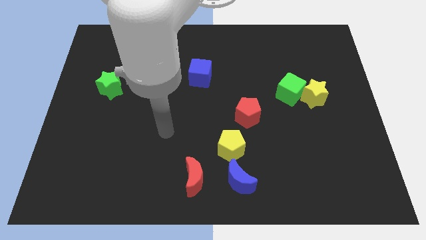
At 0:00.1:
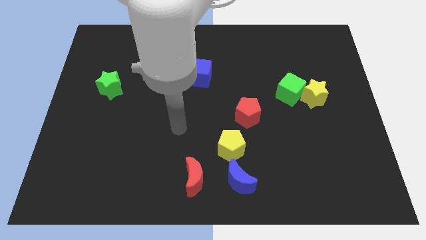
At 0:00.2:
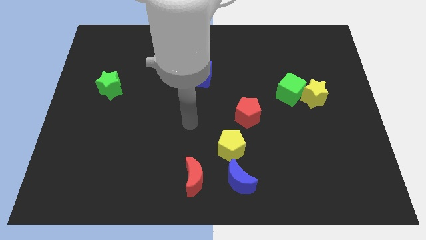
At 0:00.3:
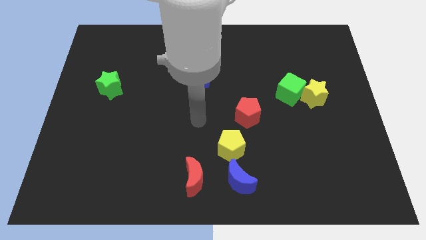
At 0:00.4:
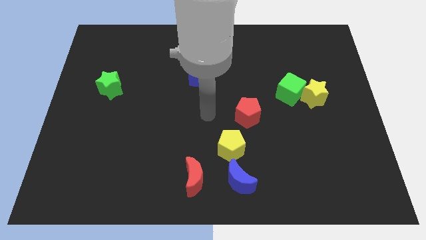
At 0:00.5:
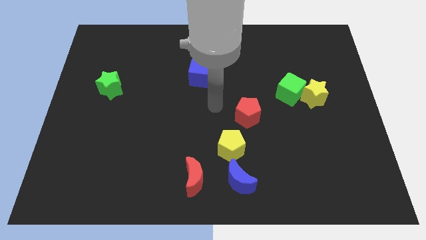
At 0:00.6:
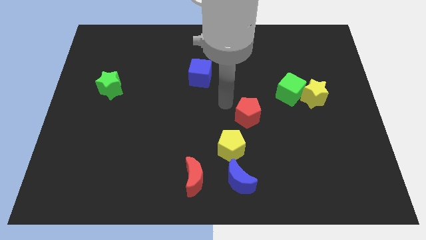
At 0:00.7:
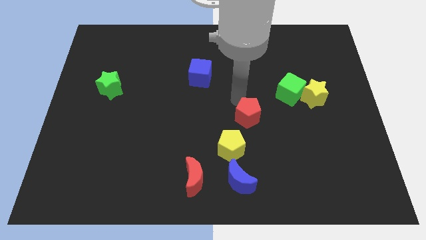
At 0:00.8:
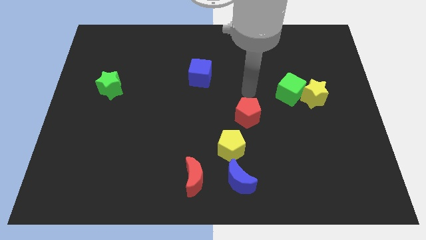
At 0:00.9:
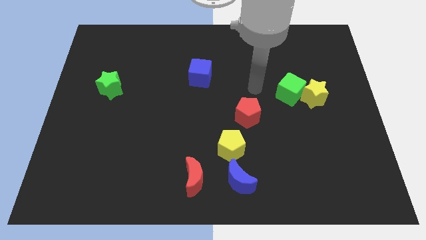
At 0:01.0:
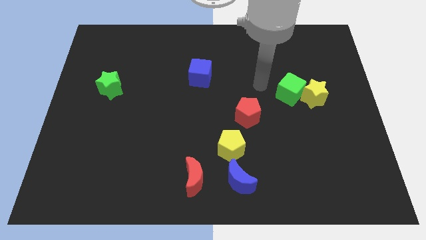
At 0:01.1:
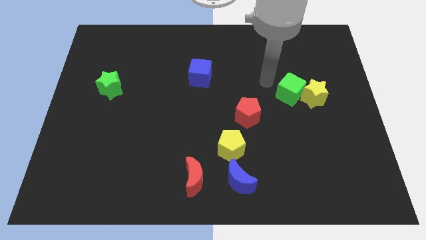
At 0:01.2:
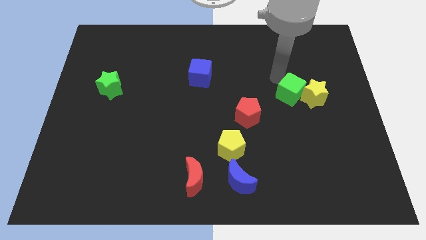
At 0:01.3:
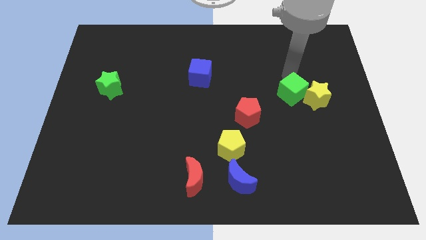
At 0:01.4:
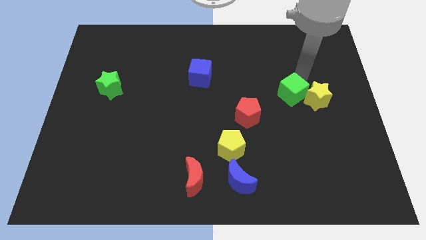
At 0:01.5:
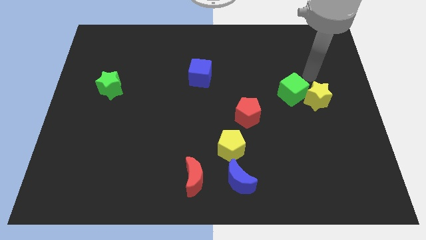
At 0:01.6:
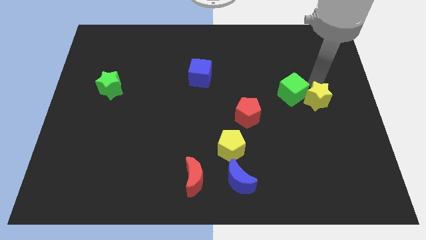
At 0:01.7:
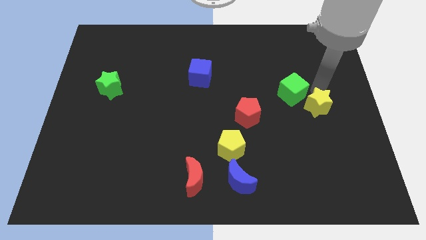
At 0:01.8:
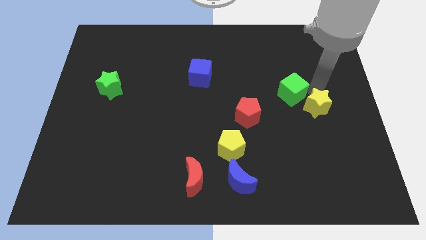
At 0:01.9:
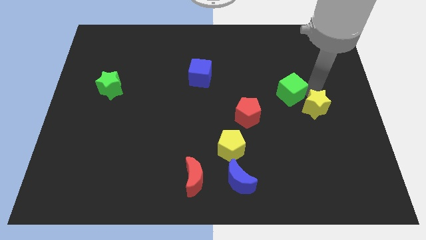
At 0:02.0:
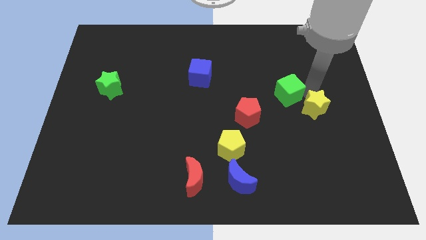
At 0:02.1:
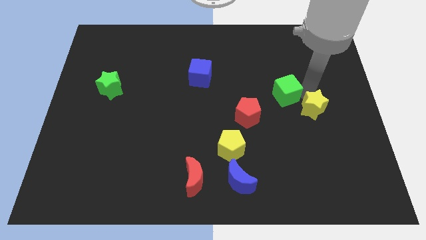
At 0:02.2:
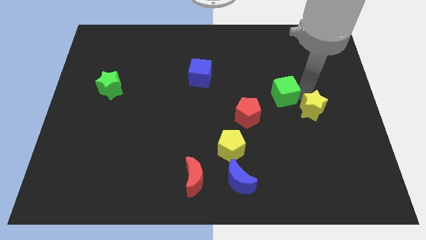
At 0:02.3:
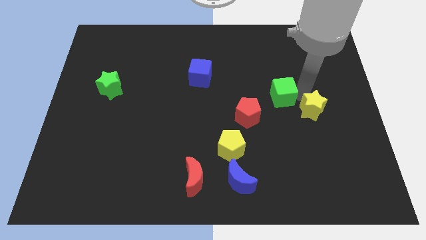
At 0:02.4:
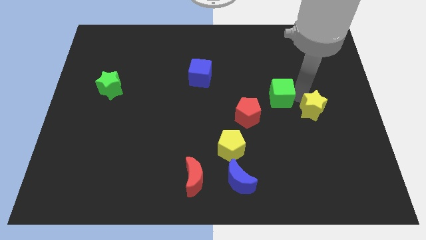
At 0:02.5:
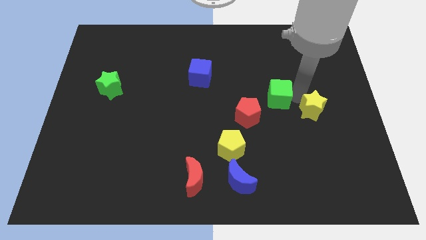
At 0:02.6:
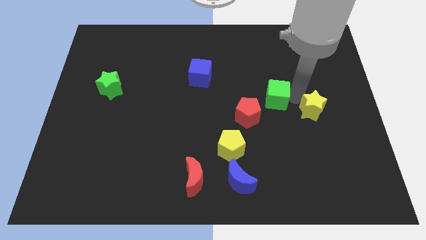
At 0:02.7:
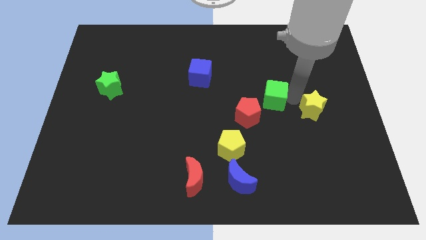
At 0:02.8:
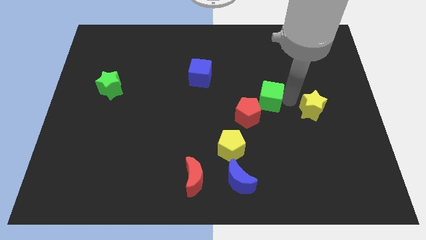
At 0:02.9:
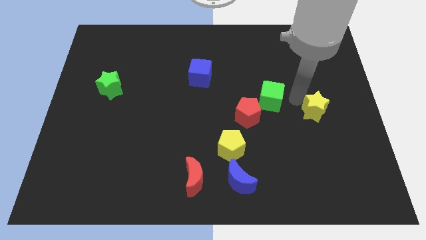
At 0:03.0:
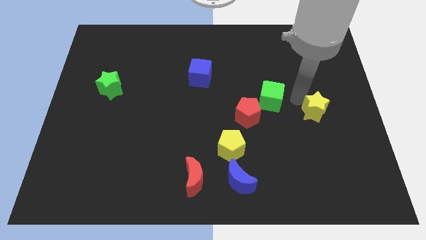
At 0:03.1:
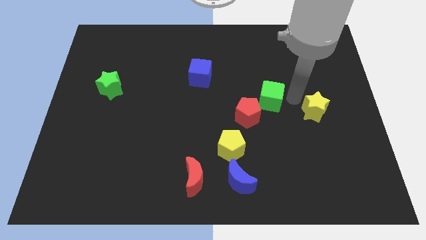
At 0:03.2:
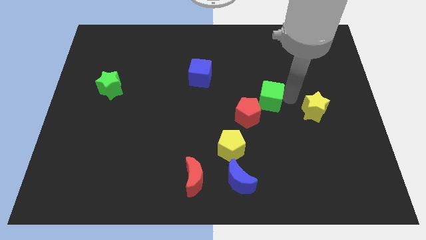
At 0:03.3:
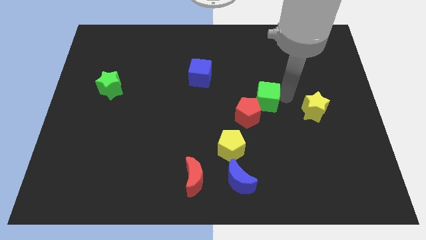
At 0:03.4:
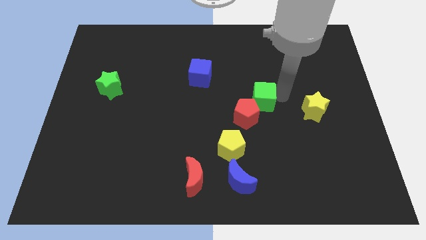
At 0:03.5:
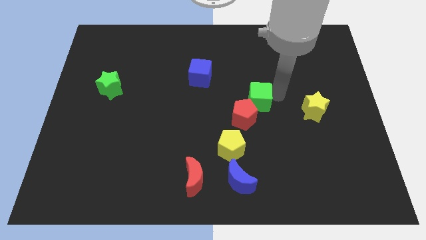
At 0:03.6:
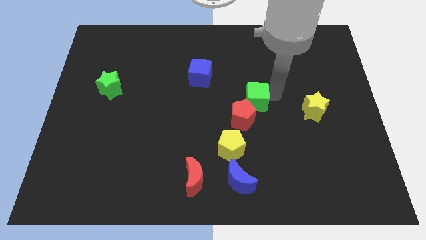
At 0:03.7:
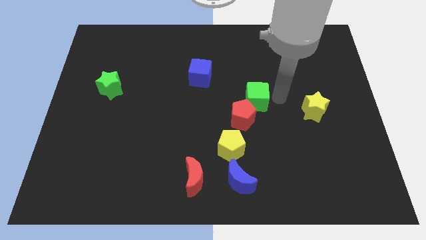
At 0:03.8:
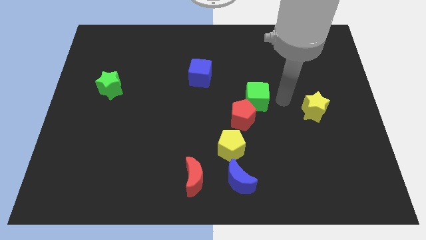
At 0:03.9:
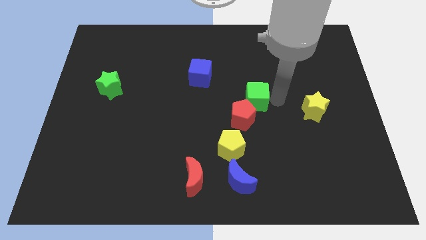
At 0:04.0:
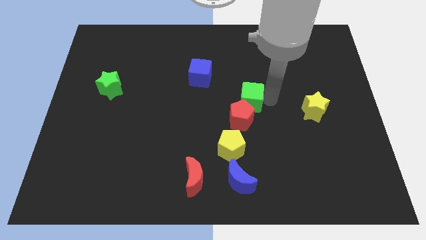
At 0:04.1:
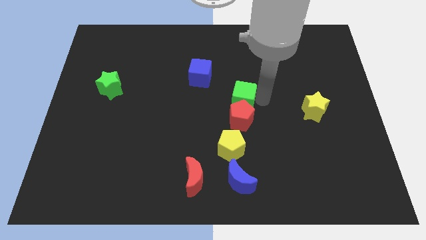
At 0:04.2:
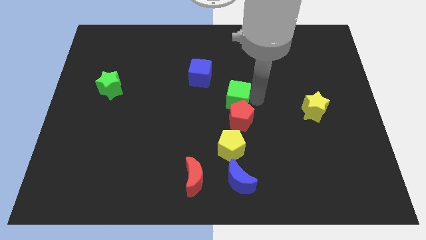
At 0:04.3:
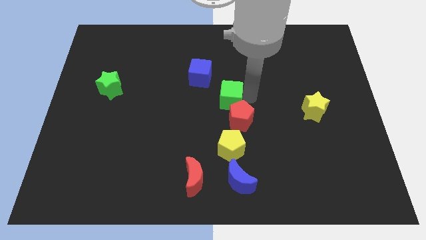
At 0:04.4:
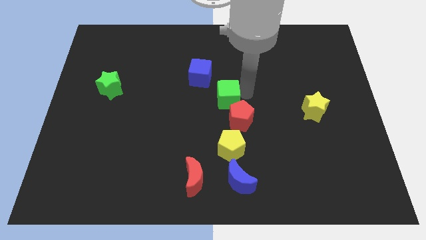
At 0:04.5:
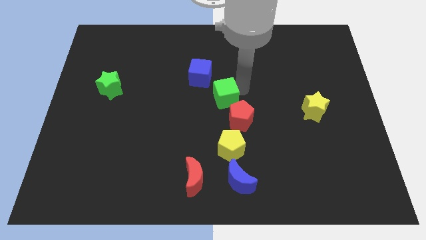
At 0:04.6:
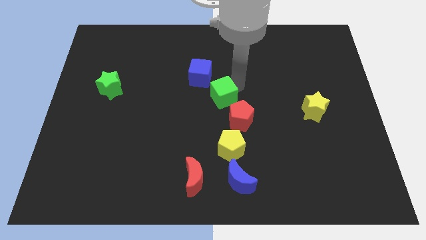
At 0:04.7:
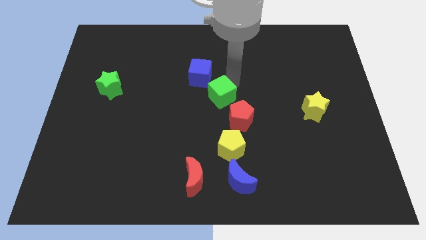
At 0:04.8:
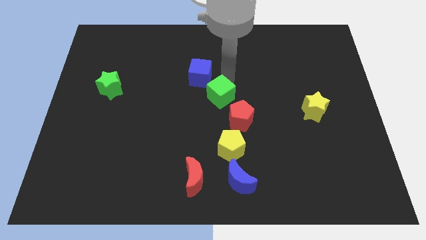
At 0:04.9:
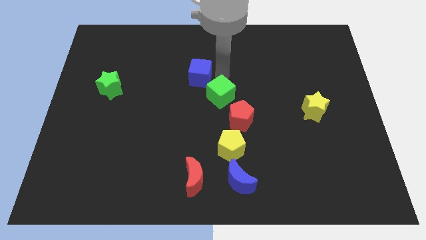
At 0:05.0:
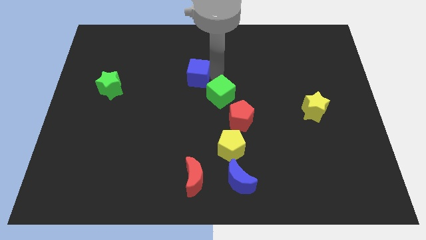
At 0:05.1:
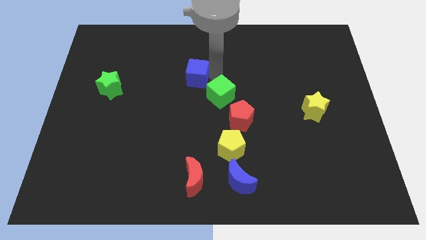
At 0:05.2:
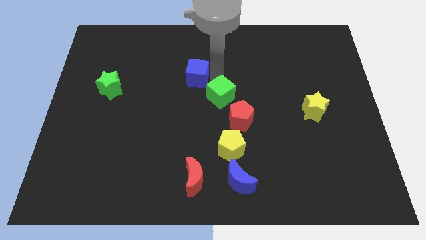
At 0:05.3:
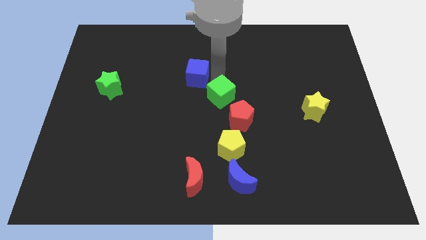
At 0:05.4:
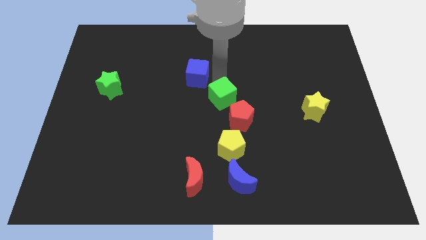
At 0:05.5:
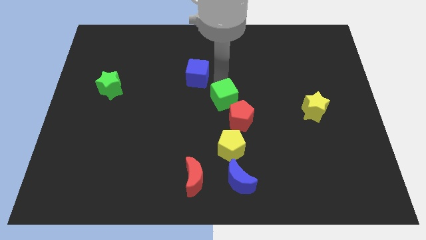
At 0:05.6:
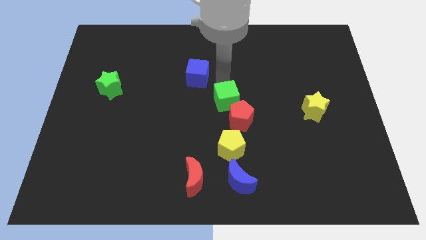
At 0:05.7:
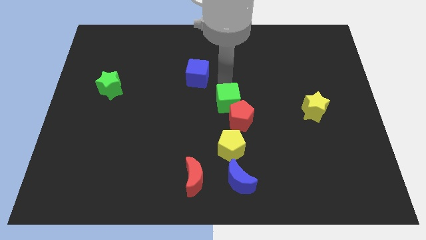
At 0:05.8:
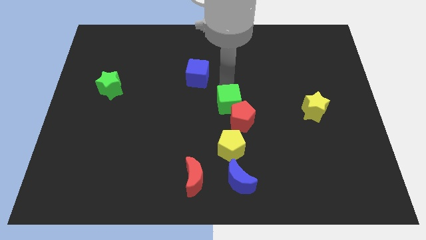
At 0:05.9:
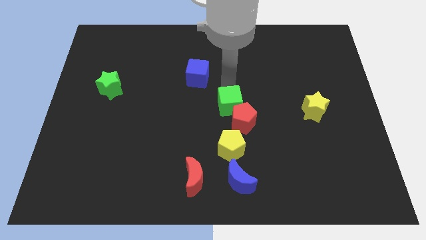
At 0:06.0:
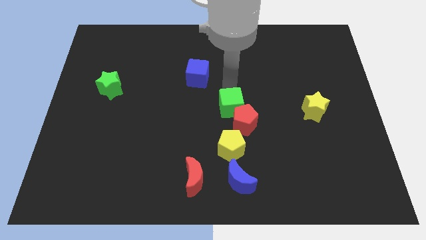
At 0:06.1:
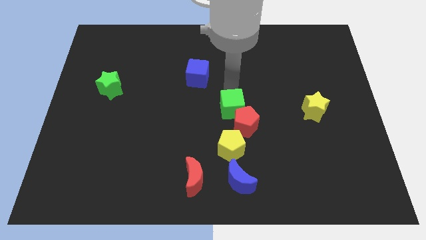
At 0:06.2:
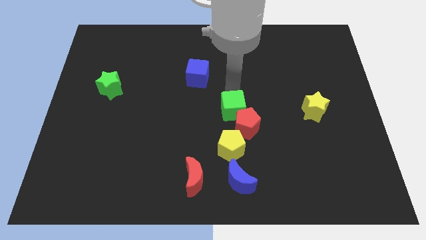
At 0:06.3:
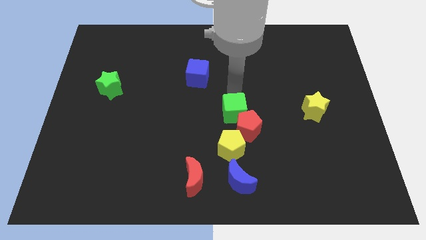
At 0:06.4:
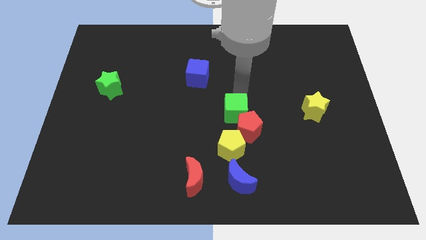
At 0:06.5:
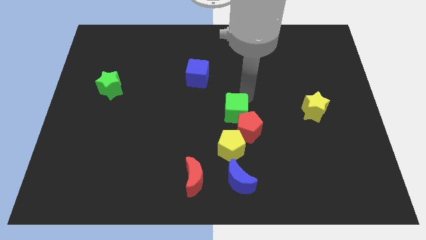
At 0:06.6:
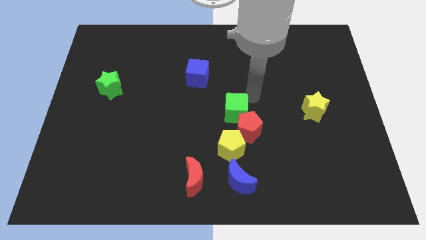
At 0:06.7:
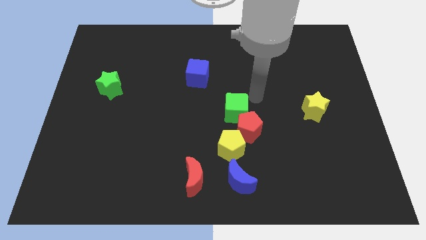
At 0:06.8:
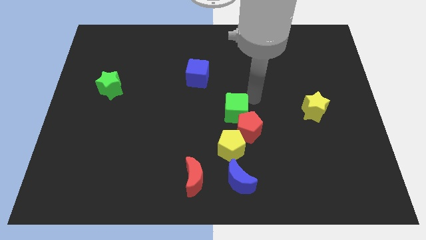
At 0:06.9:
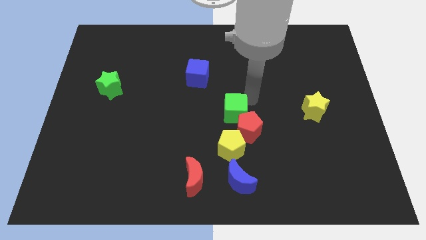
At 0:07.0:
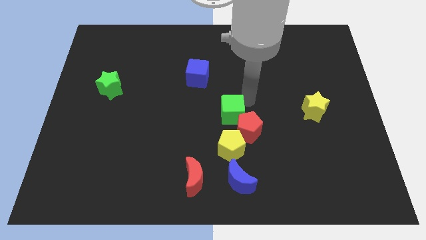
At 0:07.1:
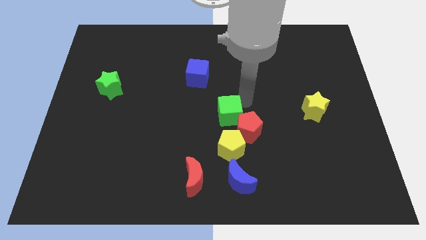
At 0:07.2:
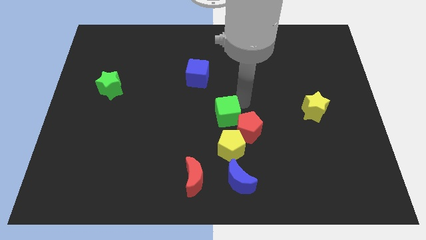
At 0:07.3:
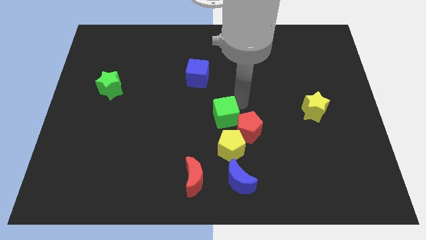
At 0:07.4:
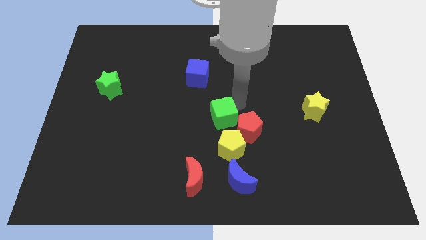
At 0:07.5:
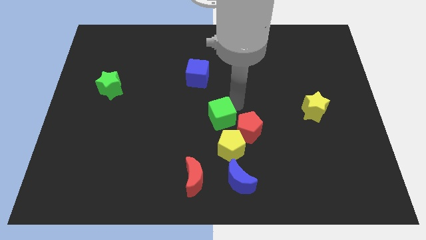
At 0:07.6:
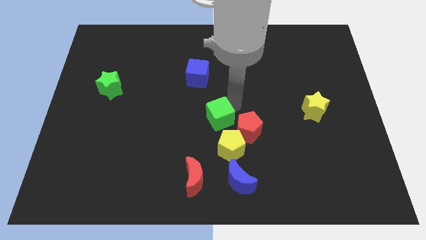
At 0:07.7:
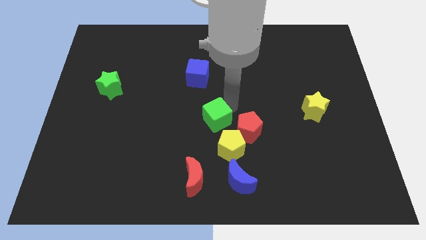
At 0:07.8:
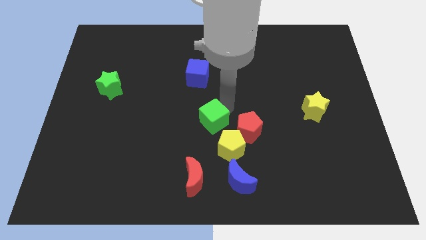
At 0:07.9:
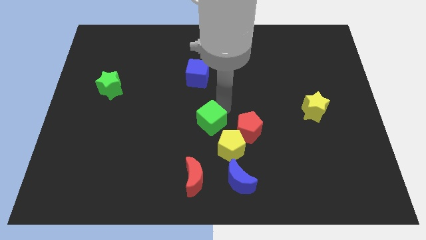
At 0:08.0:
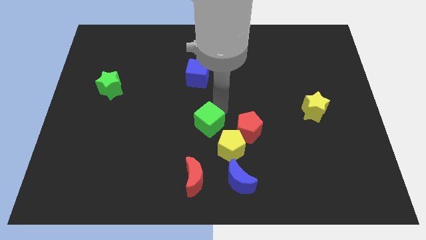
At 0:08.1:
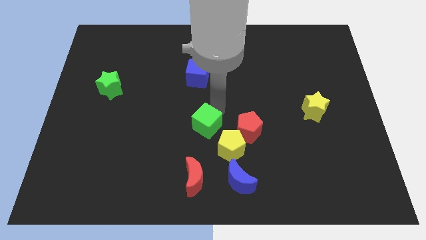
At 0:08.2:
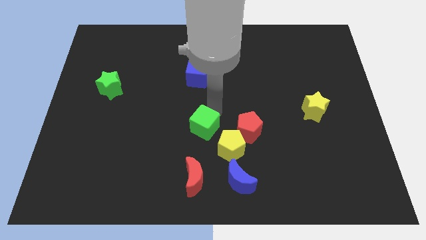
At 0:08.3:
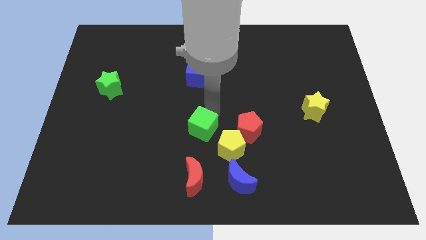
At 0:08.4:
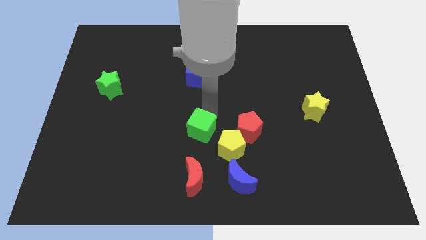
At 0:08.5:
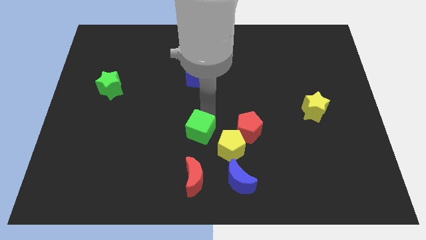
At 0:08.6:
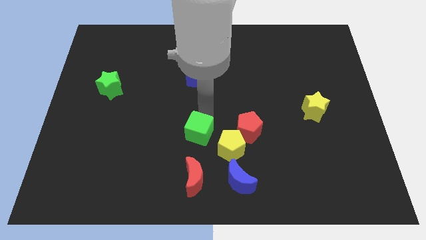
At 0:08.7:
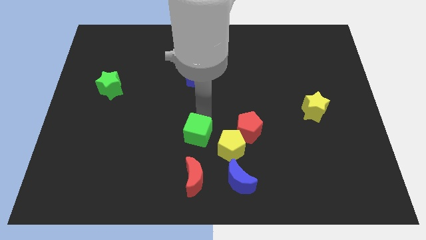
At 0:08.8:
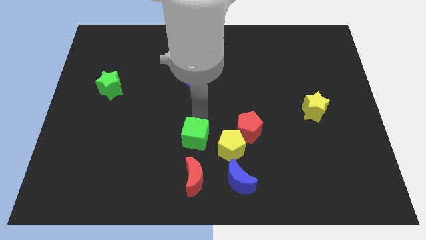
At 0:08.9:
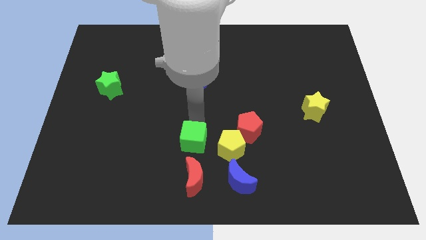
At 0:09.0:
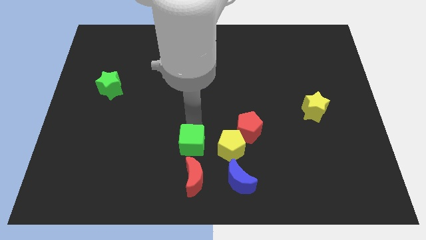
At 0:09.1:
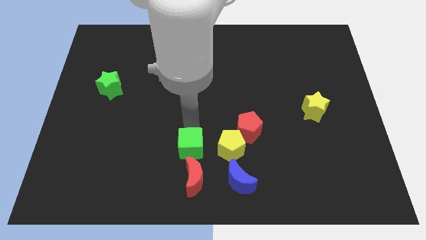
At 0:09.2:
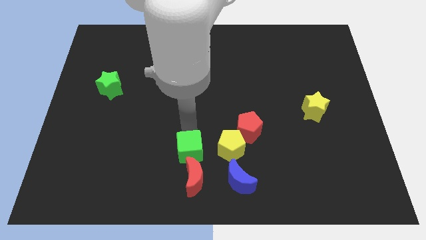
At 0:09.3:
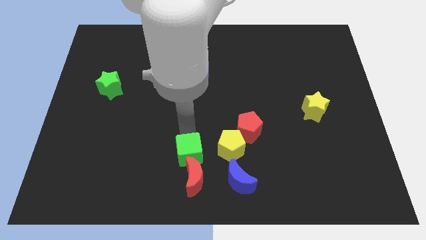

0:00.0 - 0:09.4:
move the green cube next to the red moon
